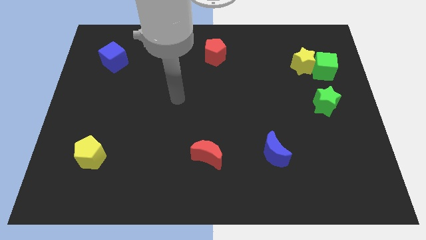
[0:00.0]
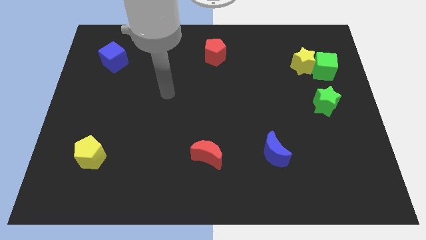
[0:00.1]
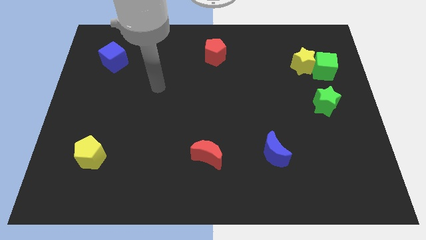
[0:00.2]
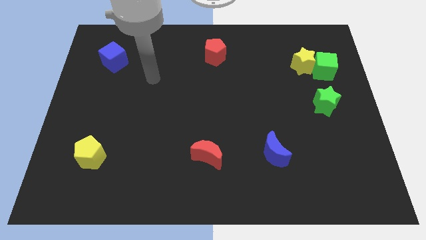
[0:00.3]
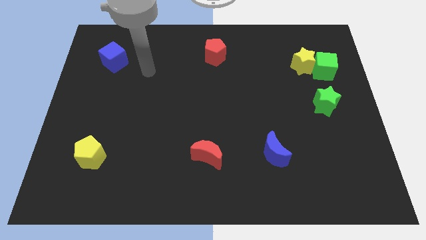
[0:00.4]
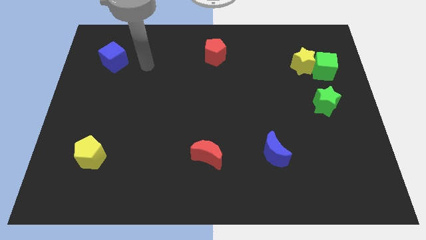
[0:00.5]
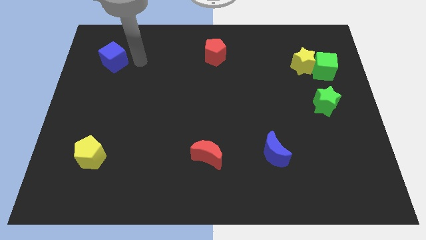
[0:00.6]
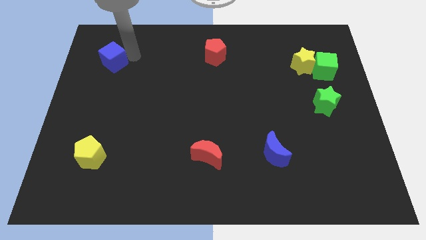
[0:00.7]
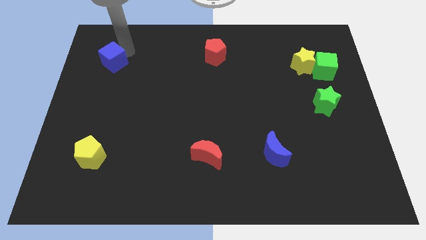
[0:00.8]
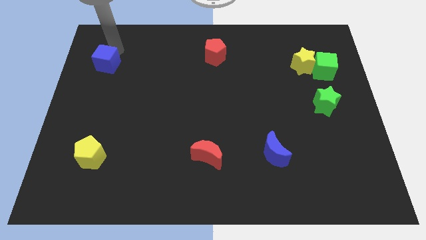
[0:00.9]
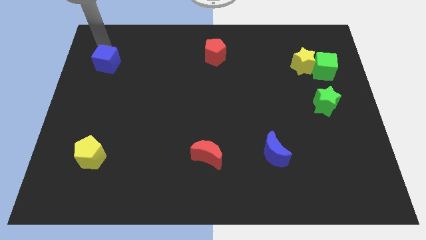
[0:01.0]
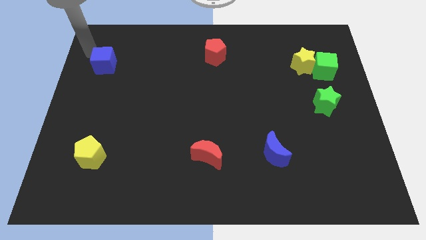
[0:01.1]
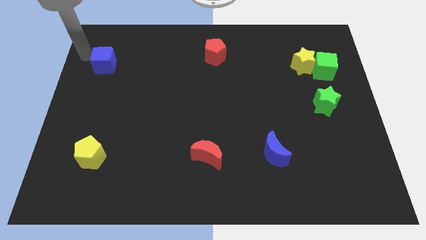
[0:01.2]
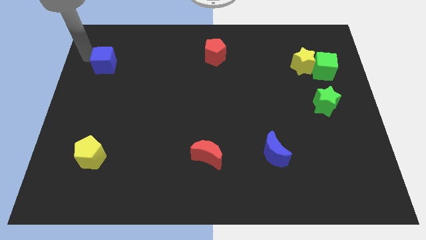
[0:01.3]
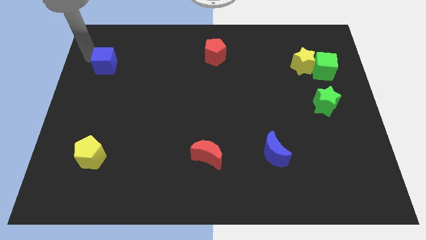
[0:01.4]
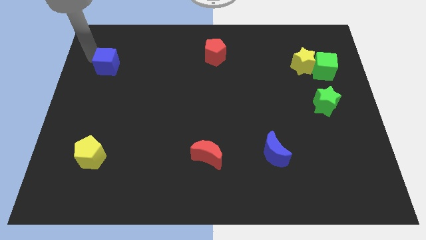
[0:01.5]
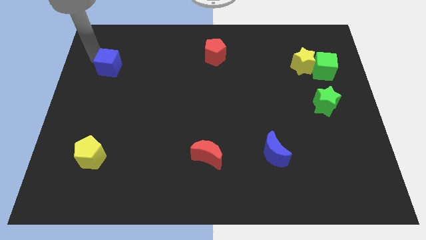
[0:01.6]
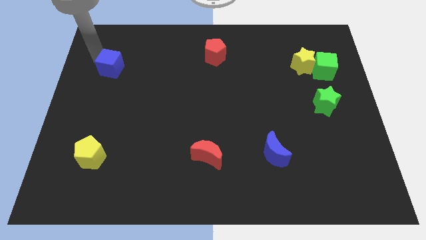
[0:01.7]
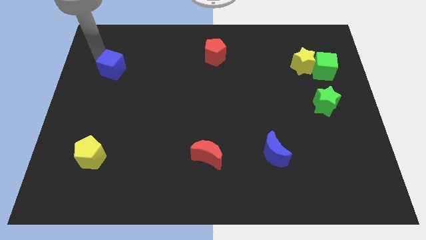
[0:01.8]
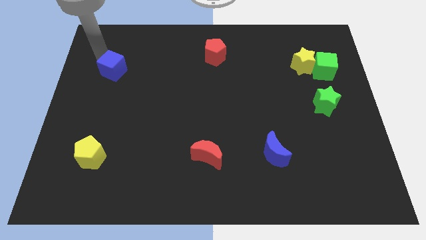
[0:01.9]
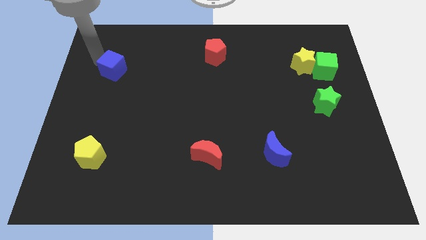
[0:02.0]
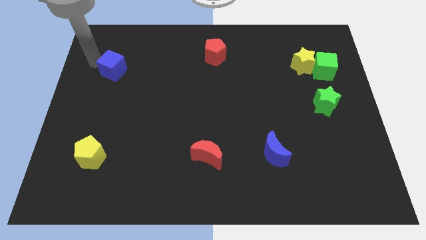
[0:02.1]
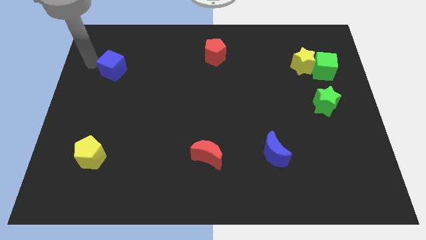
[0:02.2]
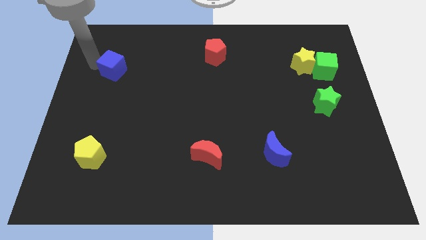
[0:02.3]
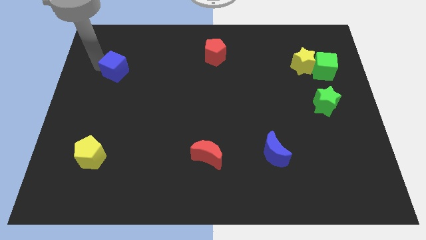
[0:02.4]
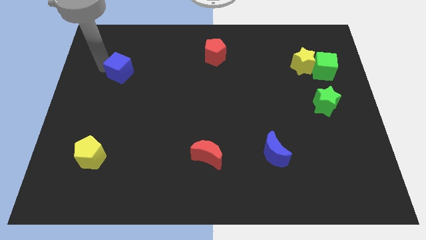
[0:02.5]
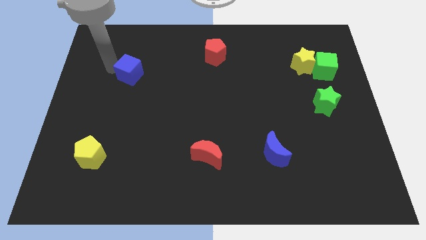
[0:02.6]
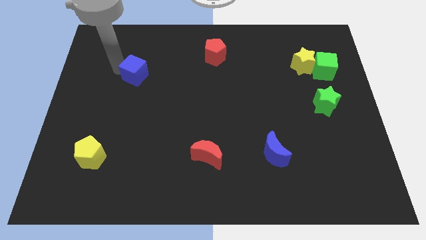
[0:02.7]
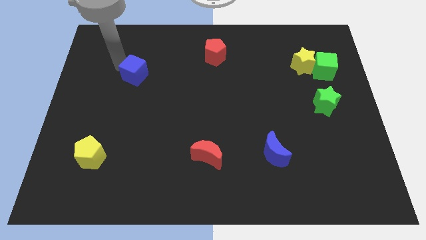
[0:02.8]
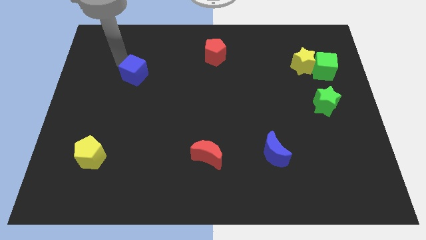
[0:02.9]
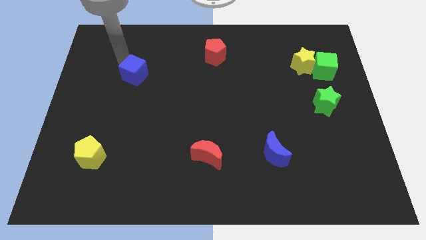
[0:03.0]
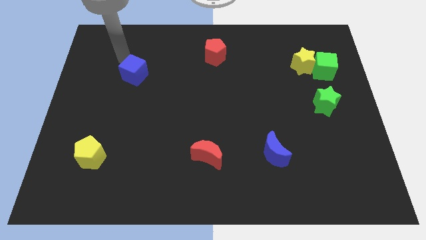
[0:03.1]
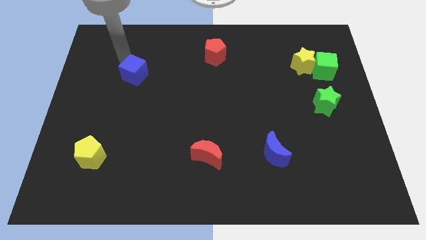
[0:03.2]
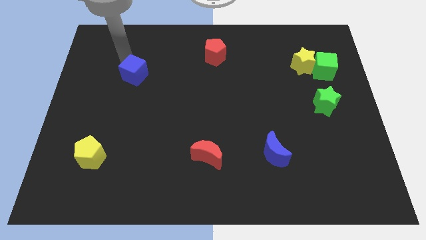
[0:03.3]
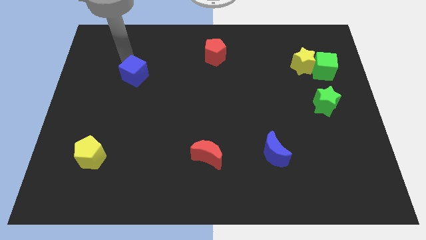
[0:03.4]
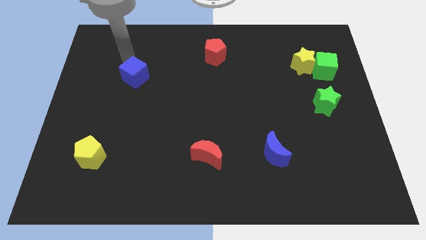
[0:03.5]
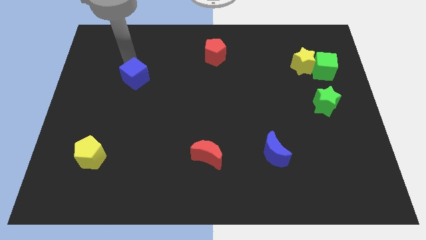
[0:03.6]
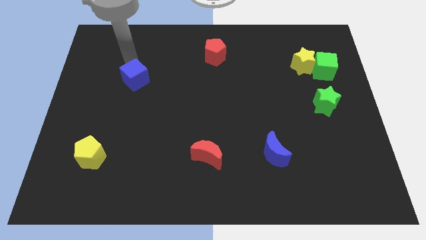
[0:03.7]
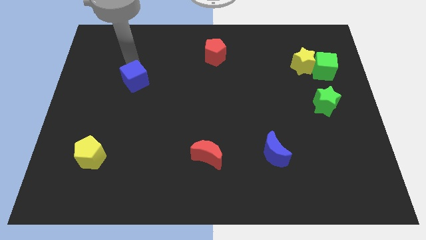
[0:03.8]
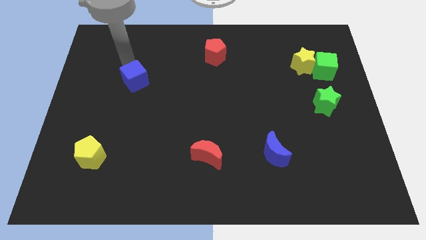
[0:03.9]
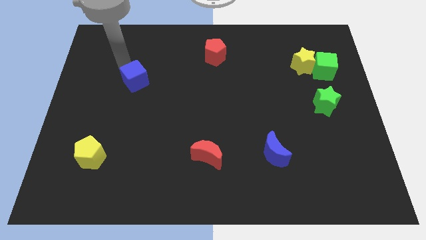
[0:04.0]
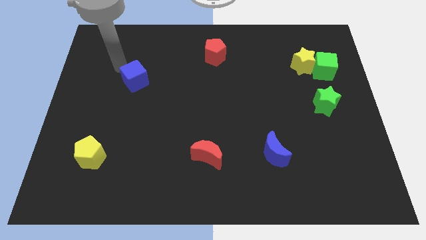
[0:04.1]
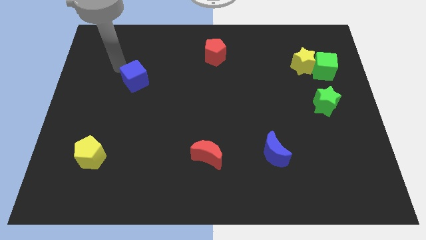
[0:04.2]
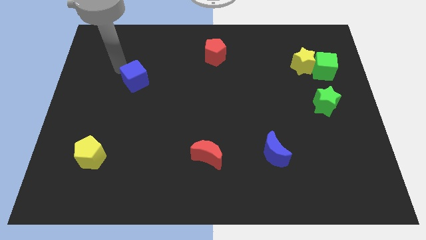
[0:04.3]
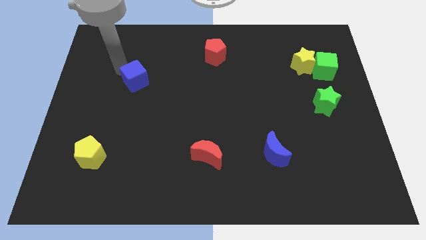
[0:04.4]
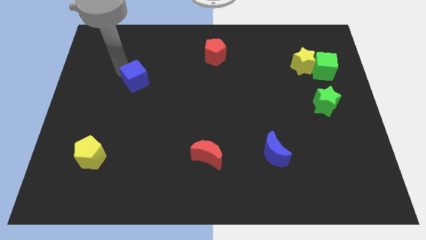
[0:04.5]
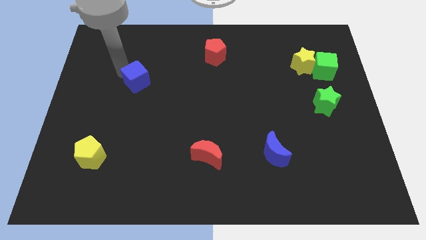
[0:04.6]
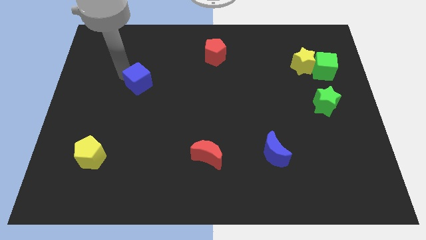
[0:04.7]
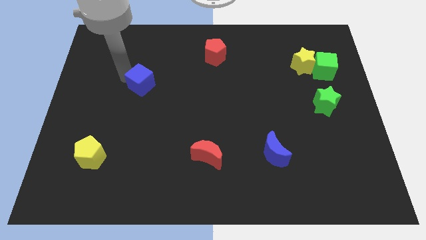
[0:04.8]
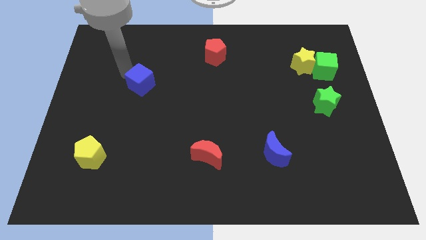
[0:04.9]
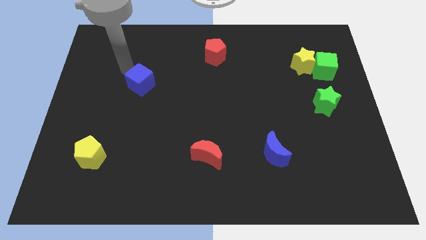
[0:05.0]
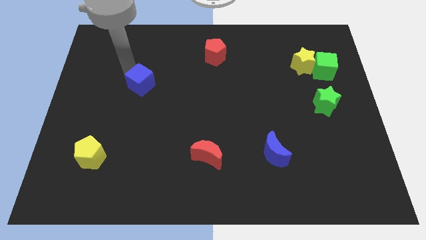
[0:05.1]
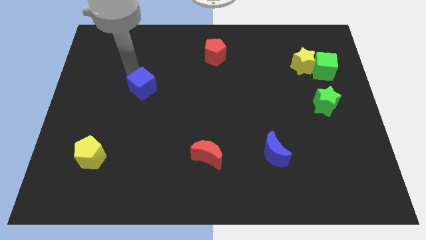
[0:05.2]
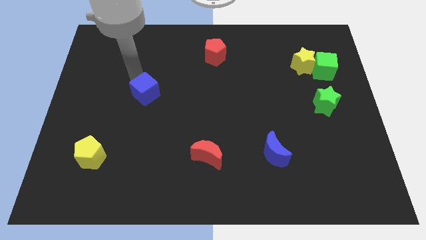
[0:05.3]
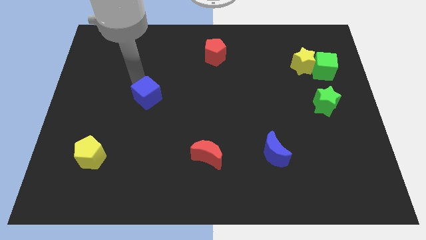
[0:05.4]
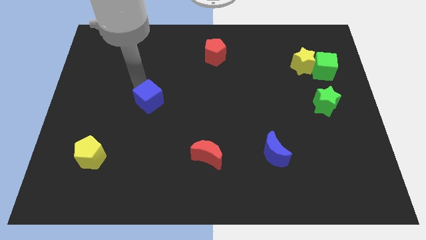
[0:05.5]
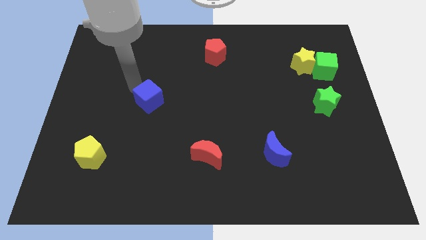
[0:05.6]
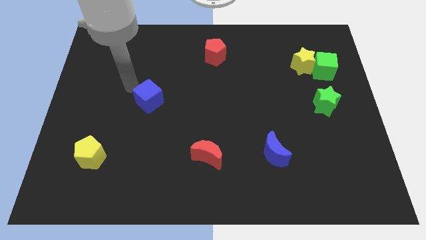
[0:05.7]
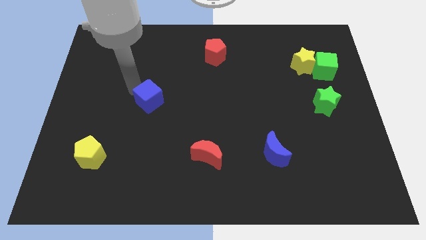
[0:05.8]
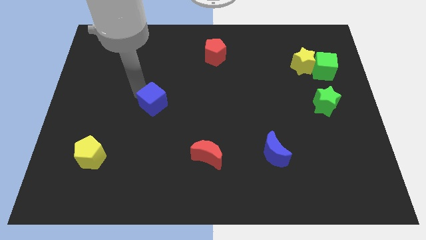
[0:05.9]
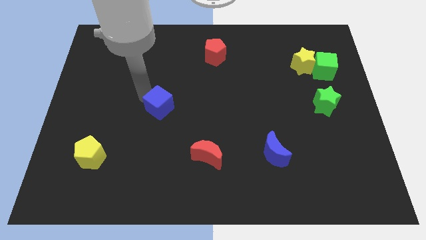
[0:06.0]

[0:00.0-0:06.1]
move the blue cube downwards and right

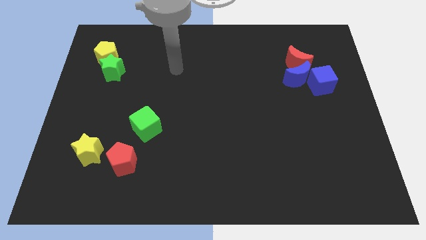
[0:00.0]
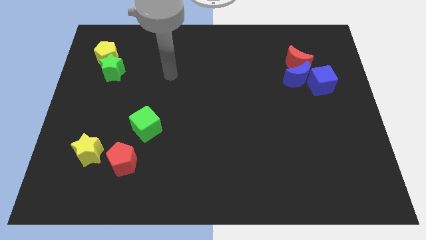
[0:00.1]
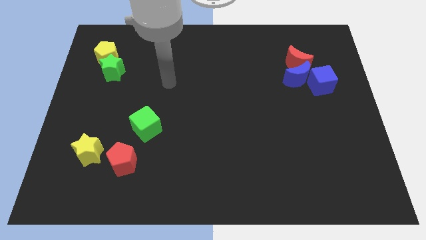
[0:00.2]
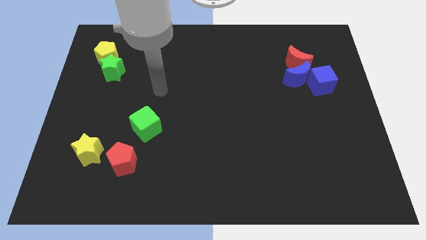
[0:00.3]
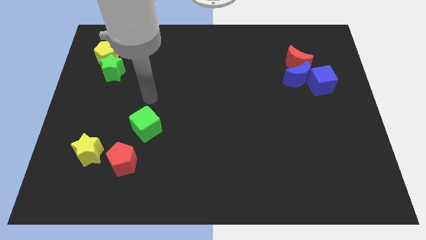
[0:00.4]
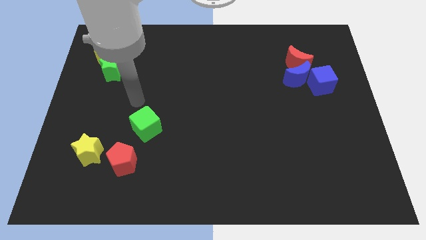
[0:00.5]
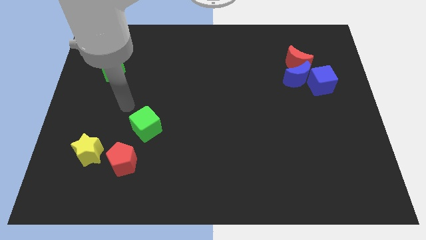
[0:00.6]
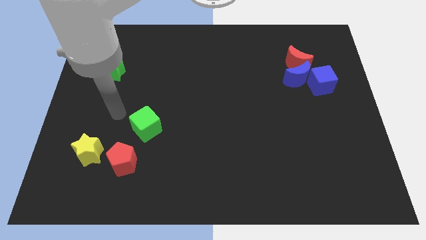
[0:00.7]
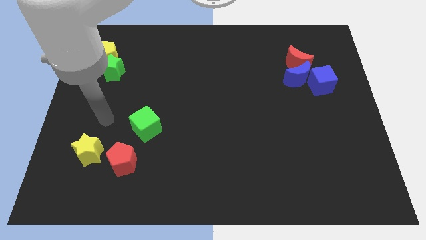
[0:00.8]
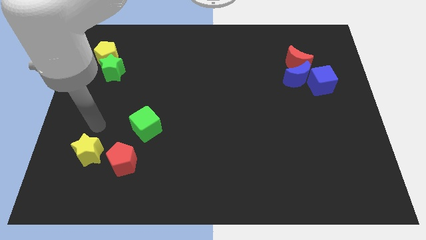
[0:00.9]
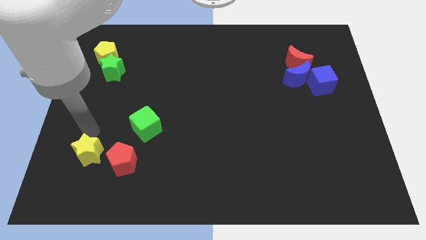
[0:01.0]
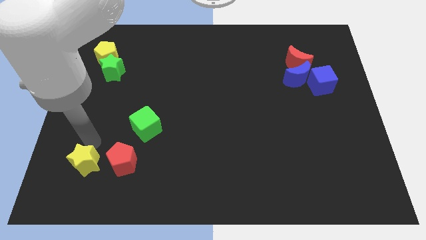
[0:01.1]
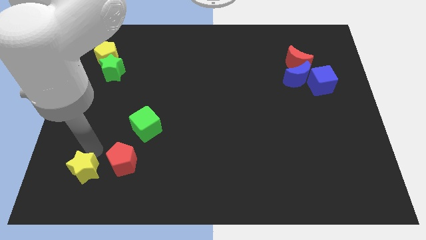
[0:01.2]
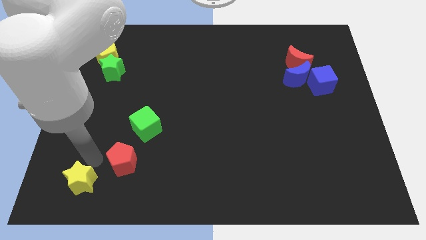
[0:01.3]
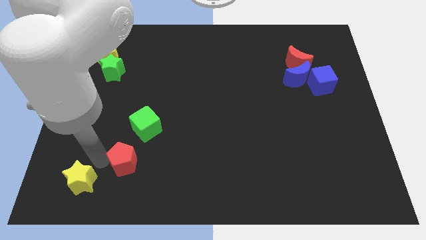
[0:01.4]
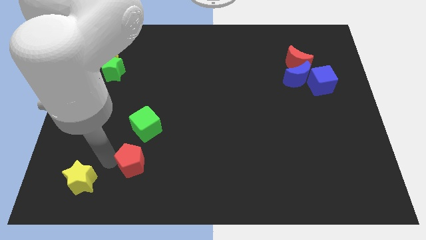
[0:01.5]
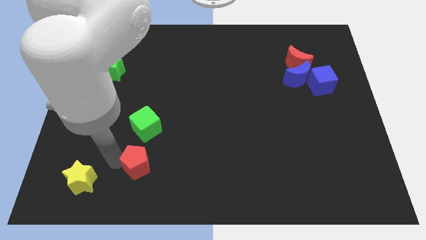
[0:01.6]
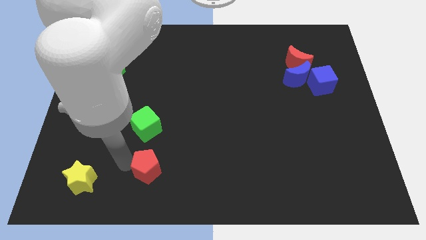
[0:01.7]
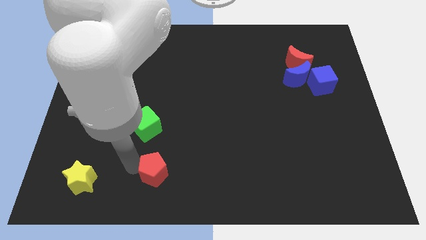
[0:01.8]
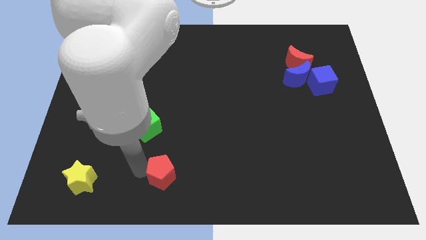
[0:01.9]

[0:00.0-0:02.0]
slightly move the red pentagon right
